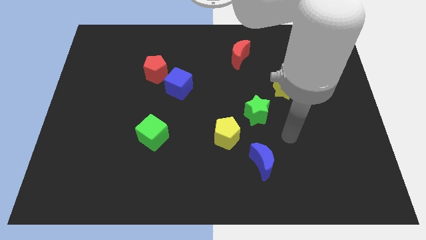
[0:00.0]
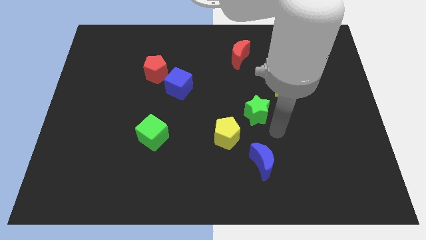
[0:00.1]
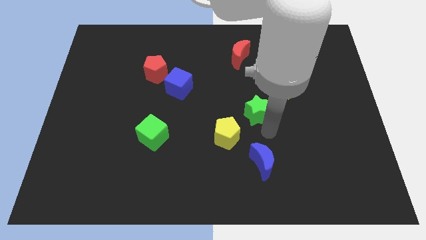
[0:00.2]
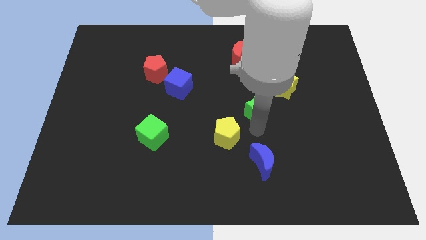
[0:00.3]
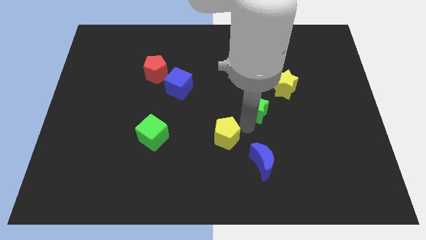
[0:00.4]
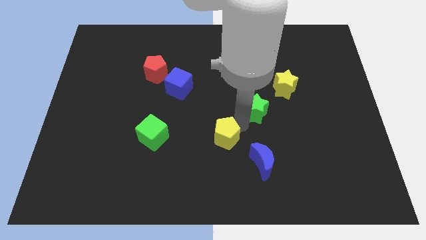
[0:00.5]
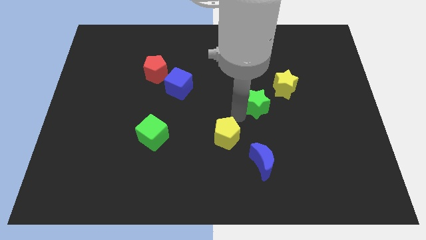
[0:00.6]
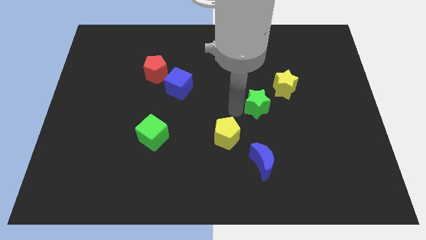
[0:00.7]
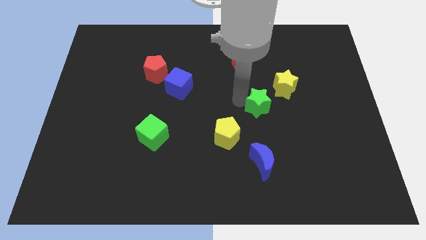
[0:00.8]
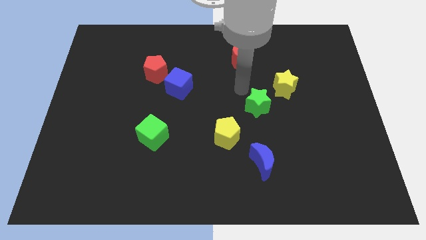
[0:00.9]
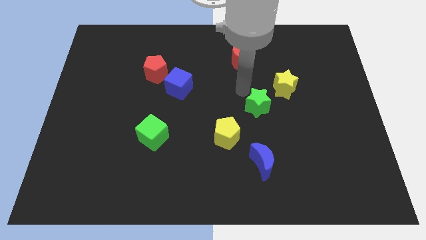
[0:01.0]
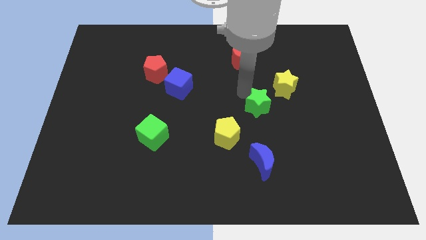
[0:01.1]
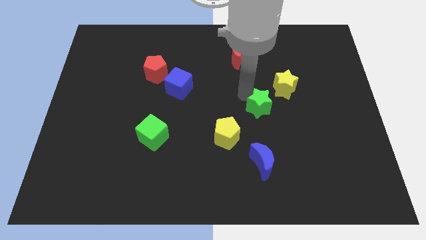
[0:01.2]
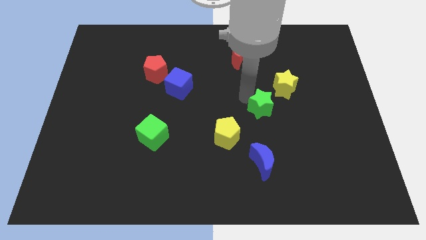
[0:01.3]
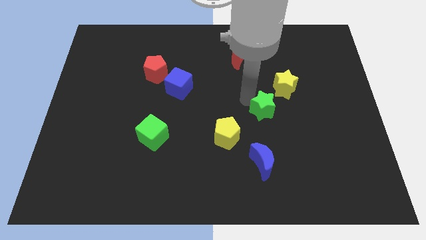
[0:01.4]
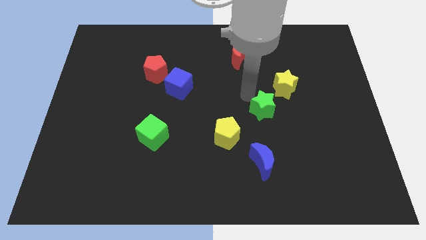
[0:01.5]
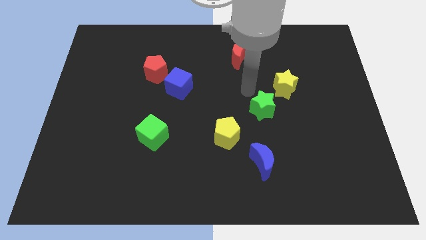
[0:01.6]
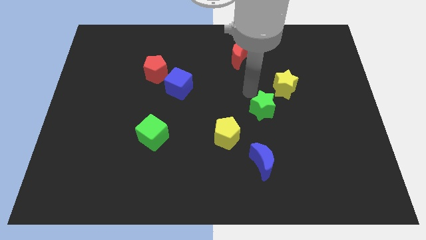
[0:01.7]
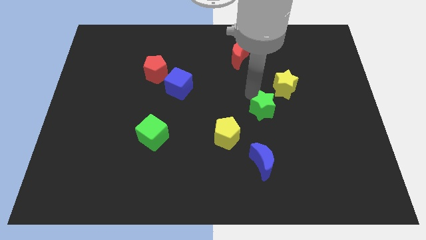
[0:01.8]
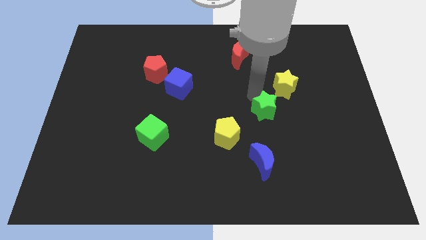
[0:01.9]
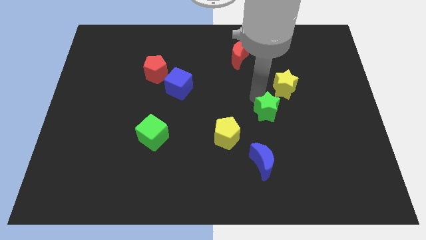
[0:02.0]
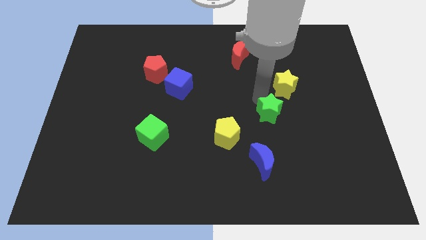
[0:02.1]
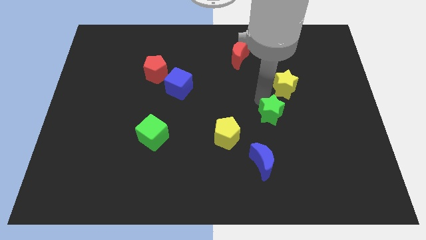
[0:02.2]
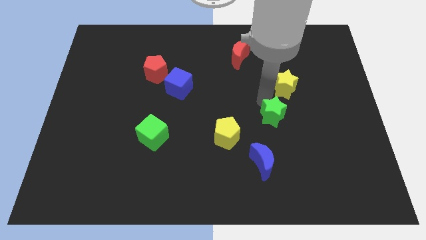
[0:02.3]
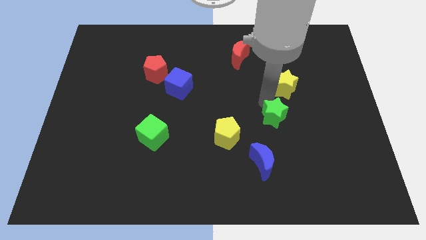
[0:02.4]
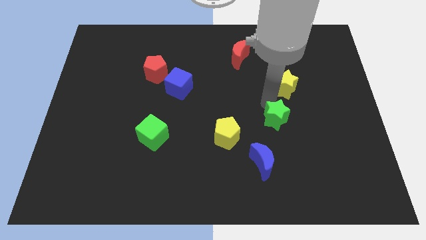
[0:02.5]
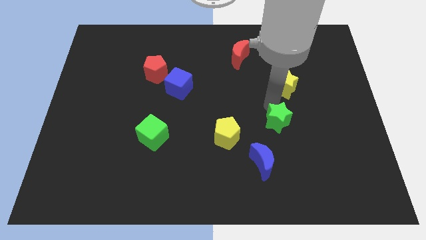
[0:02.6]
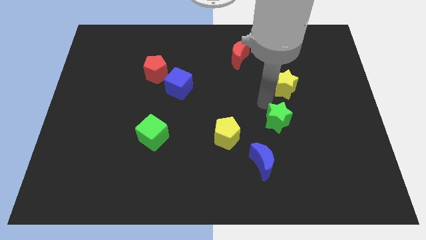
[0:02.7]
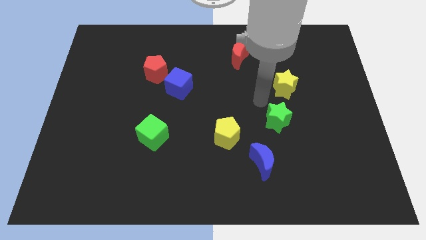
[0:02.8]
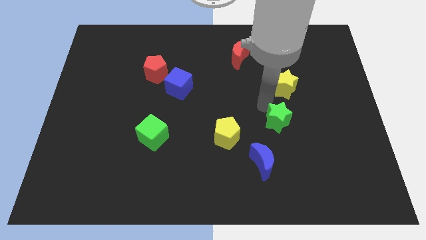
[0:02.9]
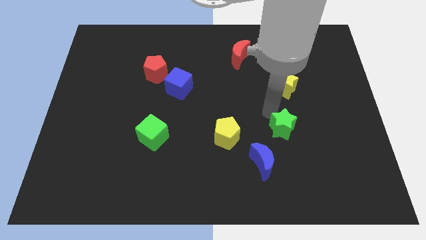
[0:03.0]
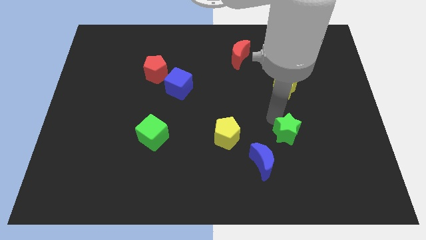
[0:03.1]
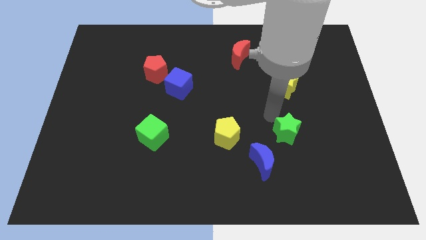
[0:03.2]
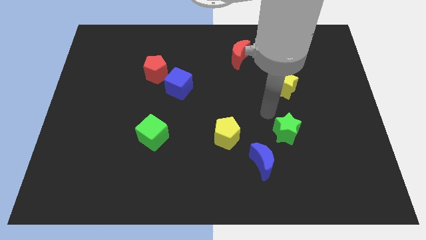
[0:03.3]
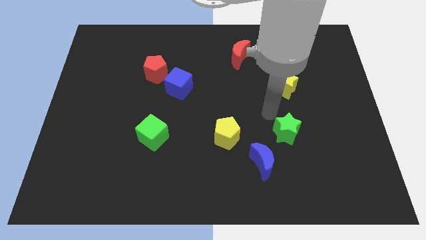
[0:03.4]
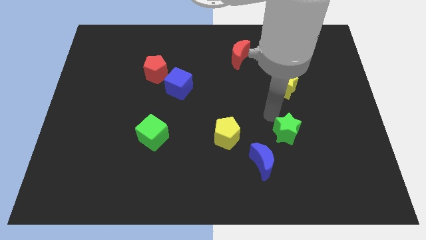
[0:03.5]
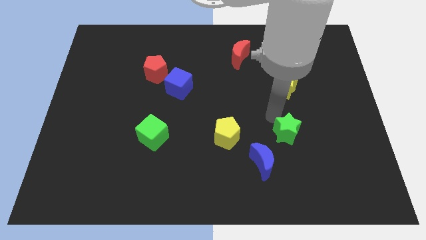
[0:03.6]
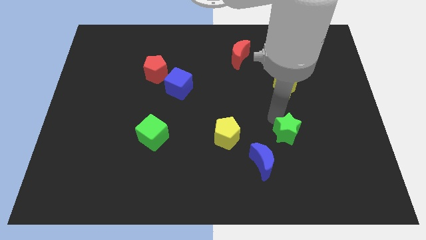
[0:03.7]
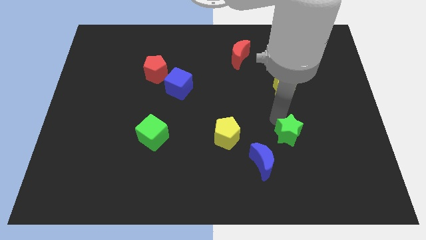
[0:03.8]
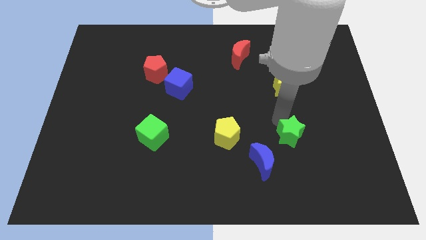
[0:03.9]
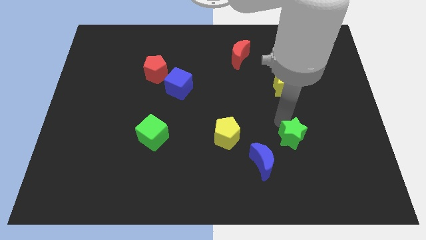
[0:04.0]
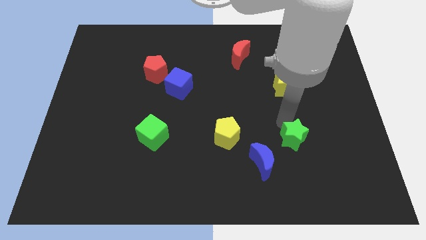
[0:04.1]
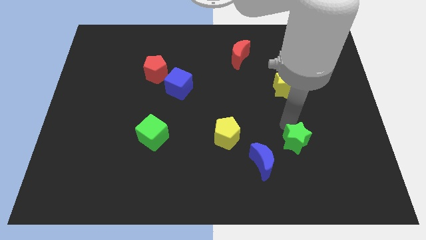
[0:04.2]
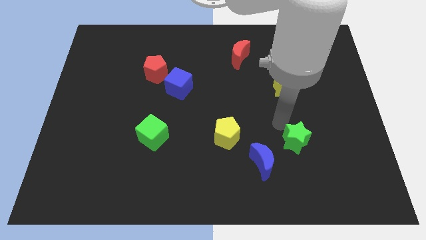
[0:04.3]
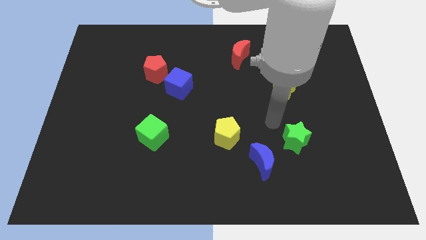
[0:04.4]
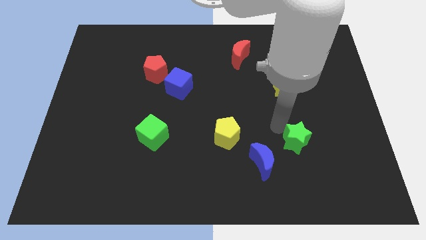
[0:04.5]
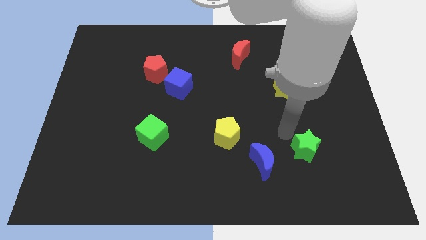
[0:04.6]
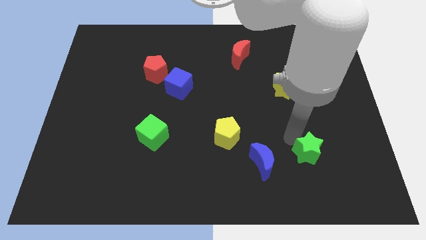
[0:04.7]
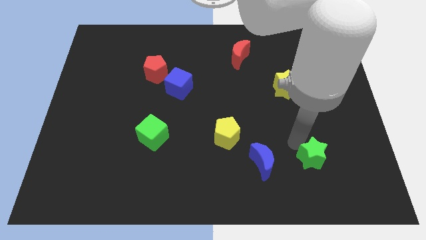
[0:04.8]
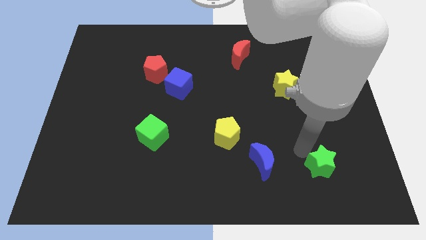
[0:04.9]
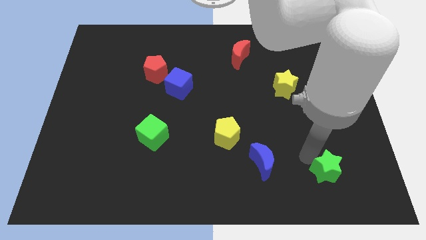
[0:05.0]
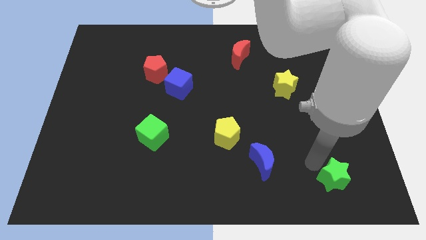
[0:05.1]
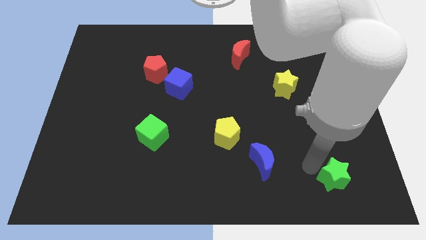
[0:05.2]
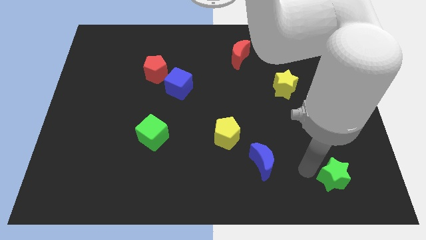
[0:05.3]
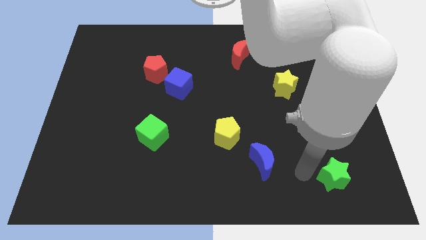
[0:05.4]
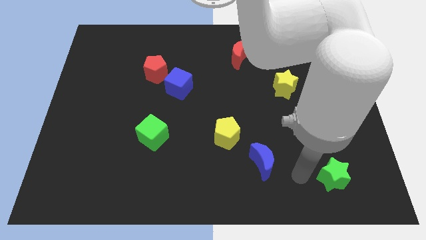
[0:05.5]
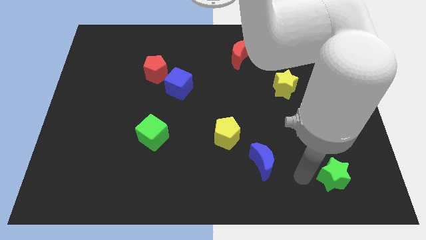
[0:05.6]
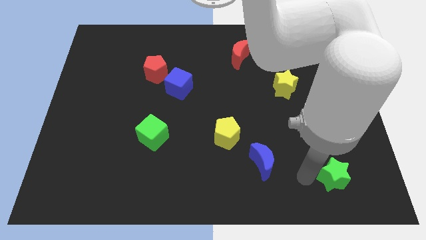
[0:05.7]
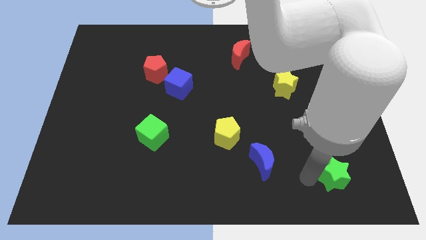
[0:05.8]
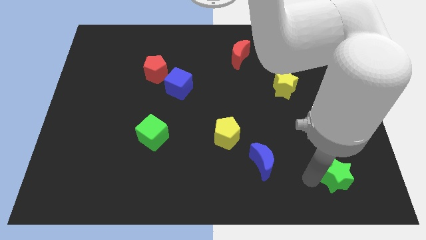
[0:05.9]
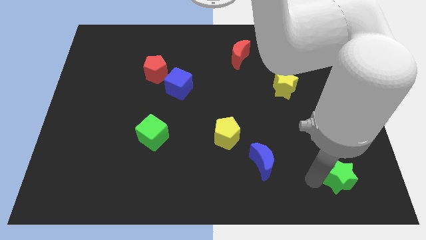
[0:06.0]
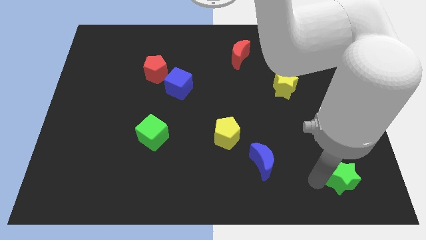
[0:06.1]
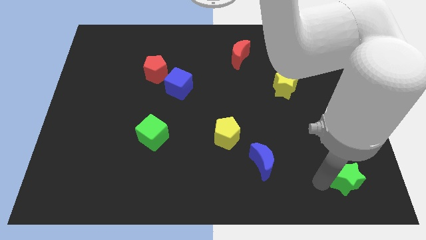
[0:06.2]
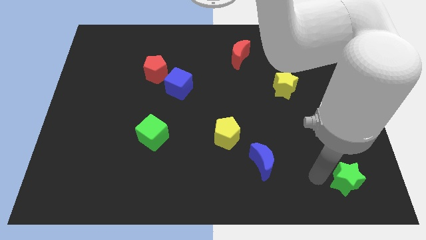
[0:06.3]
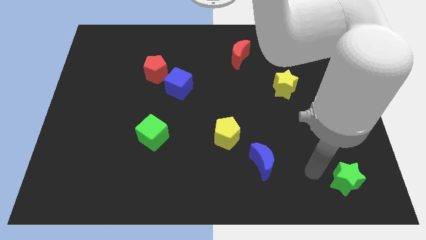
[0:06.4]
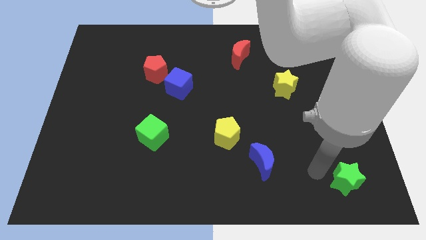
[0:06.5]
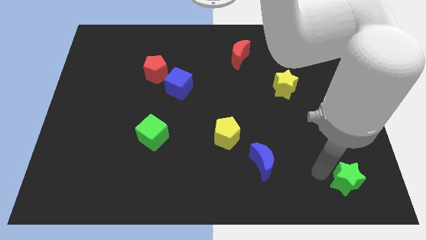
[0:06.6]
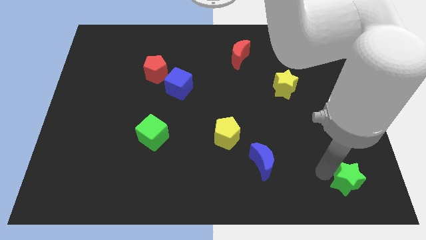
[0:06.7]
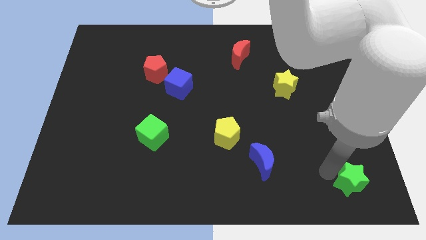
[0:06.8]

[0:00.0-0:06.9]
push the green star to the lower right corner
